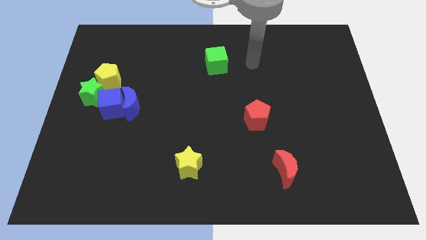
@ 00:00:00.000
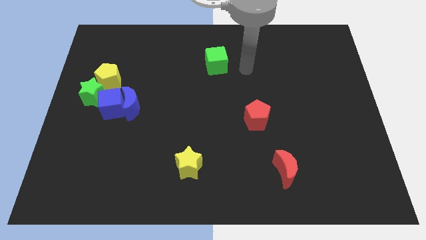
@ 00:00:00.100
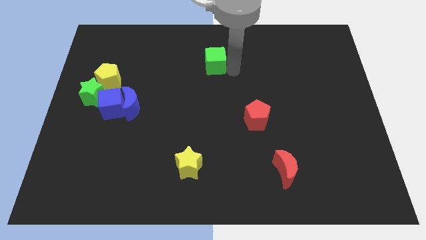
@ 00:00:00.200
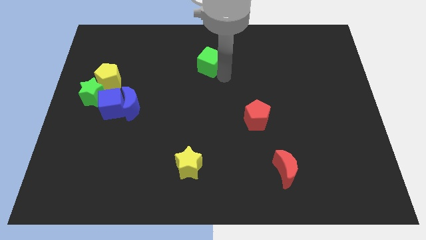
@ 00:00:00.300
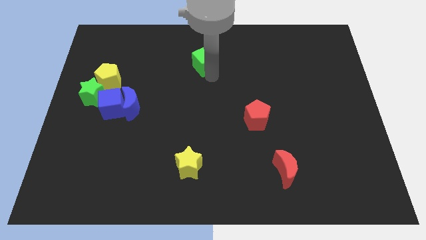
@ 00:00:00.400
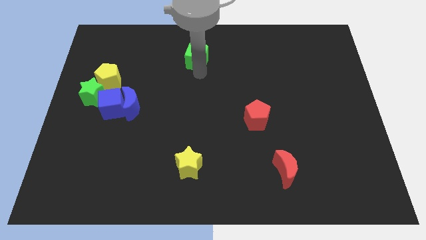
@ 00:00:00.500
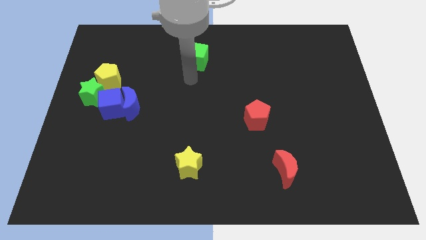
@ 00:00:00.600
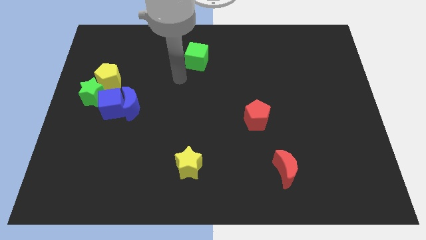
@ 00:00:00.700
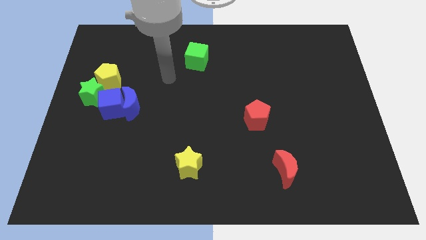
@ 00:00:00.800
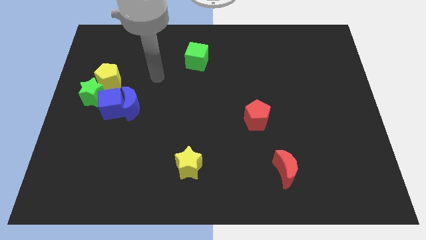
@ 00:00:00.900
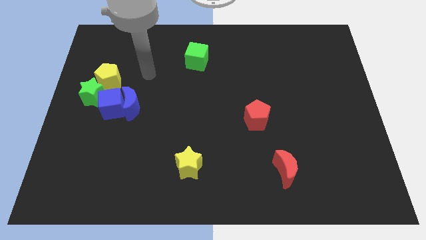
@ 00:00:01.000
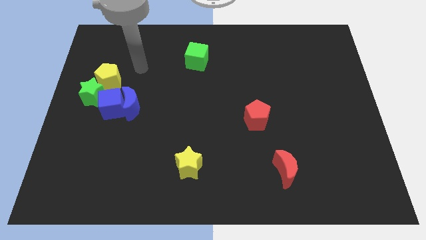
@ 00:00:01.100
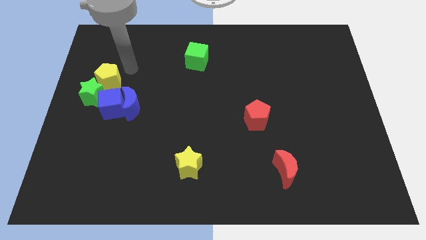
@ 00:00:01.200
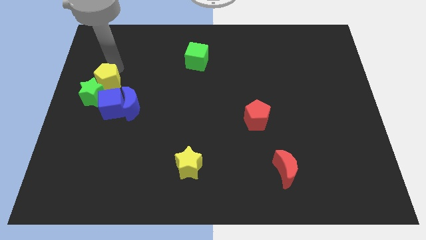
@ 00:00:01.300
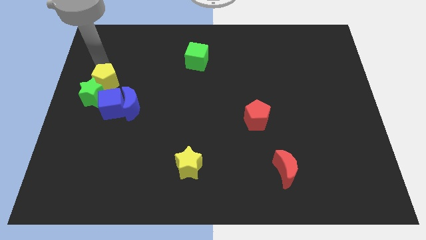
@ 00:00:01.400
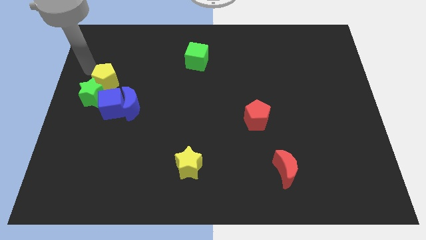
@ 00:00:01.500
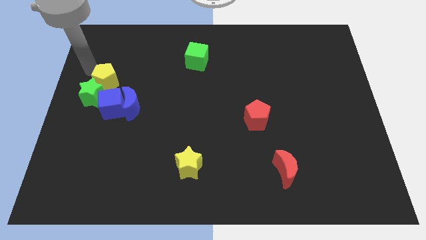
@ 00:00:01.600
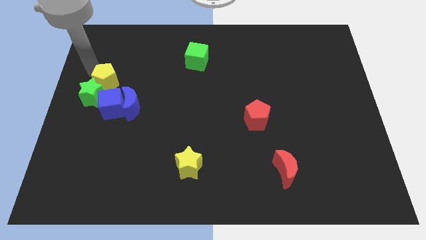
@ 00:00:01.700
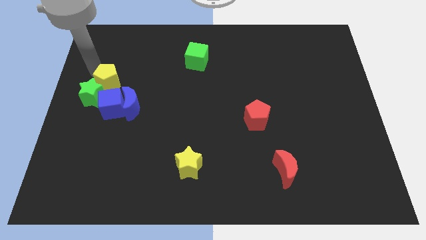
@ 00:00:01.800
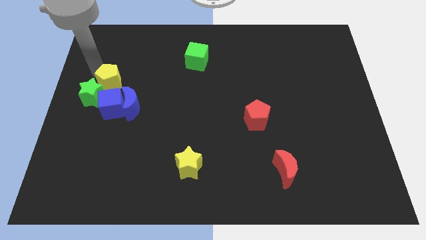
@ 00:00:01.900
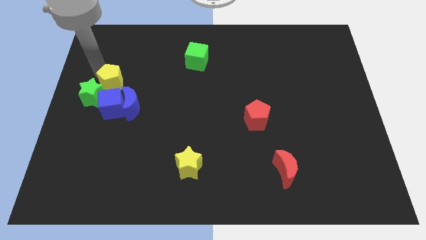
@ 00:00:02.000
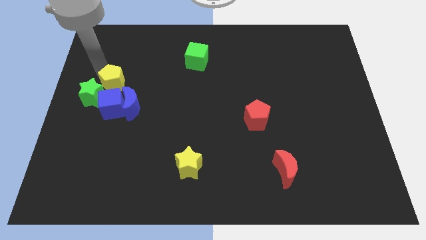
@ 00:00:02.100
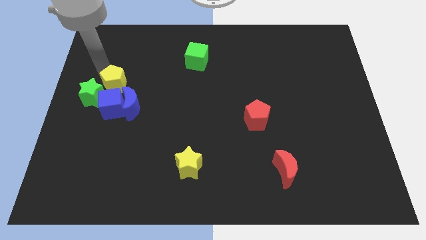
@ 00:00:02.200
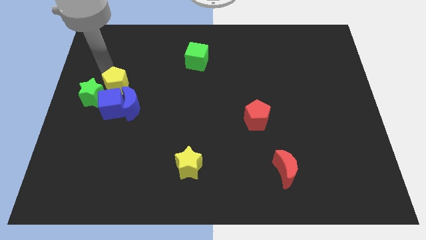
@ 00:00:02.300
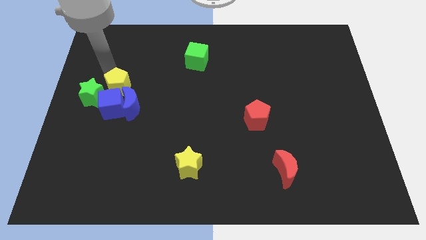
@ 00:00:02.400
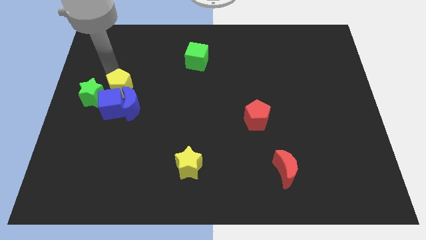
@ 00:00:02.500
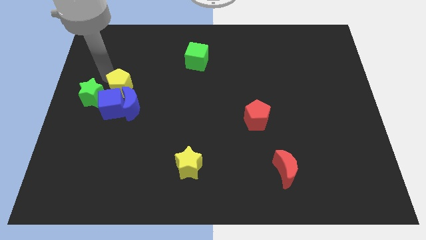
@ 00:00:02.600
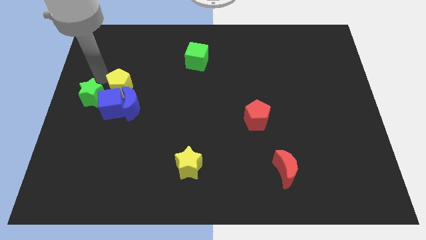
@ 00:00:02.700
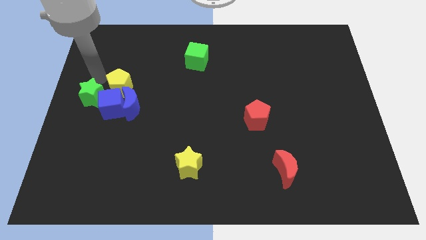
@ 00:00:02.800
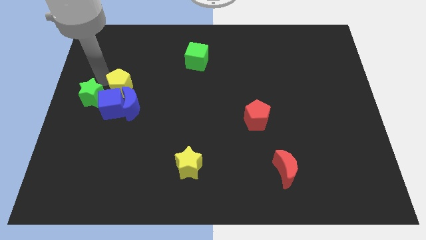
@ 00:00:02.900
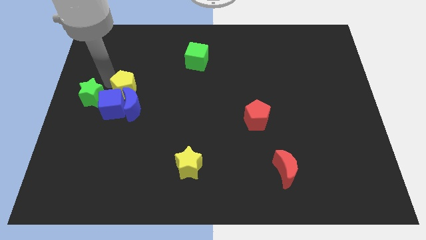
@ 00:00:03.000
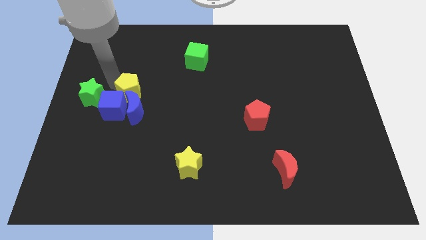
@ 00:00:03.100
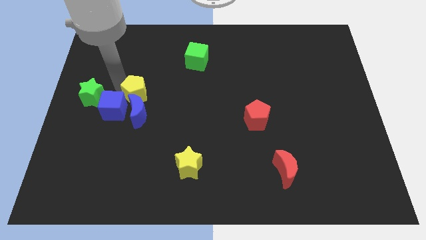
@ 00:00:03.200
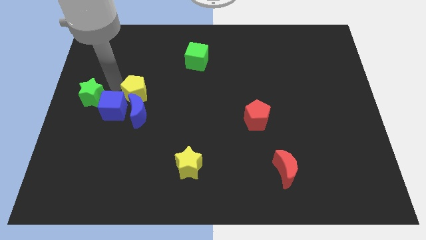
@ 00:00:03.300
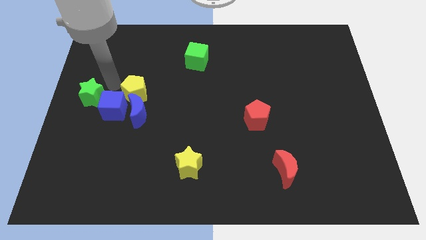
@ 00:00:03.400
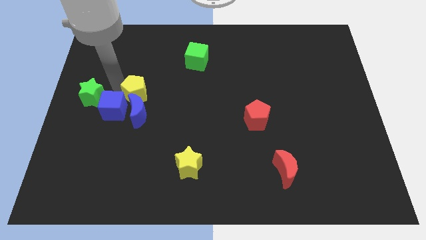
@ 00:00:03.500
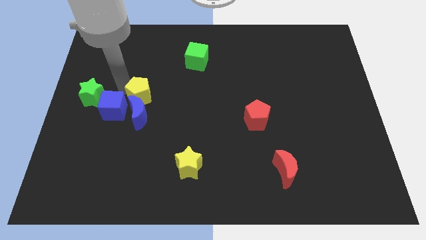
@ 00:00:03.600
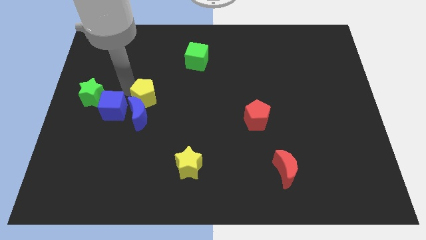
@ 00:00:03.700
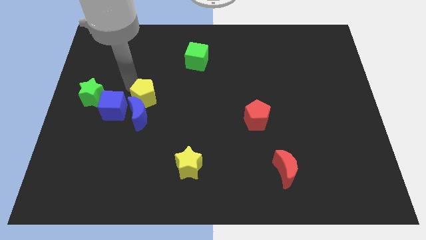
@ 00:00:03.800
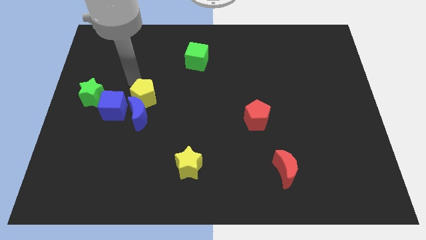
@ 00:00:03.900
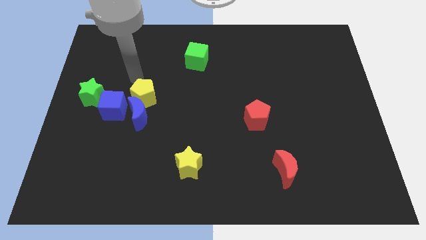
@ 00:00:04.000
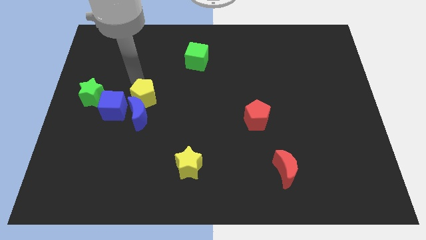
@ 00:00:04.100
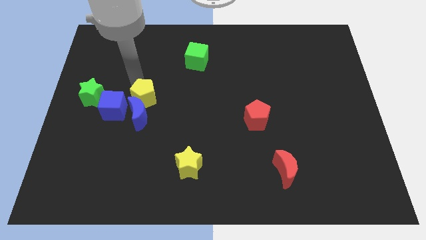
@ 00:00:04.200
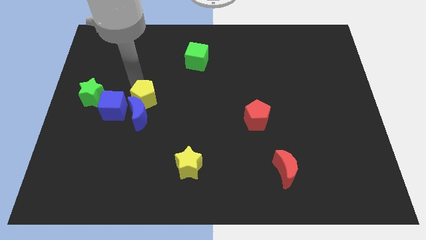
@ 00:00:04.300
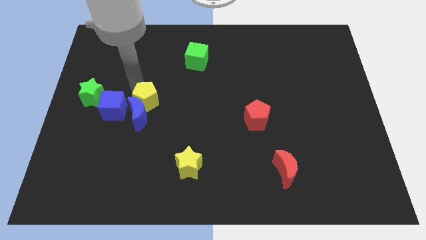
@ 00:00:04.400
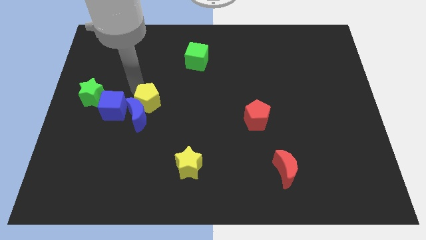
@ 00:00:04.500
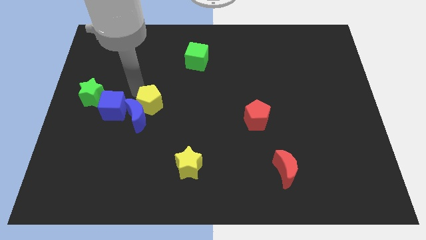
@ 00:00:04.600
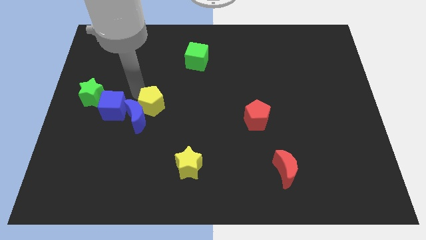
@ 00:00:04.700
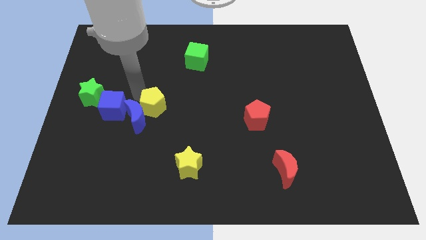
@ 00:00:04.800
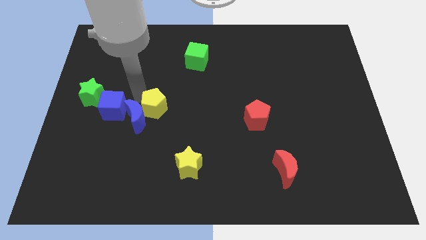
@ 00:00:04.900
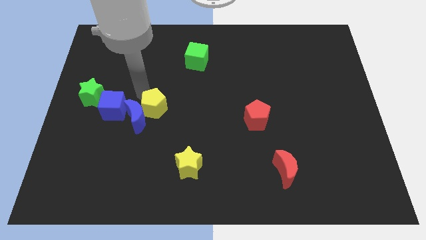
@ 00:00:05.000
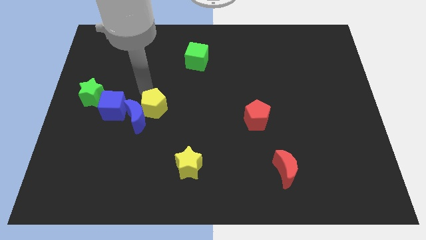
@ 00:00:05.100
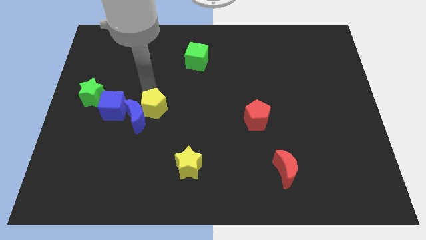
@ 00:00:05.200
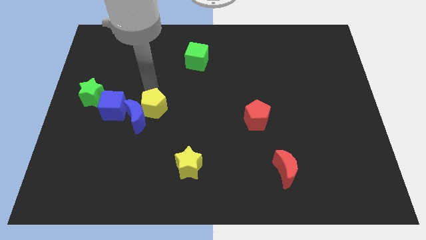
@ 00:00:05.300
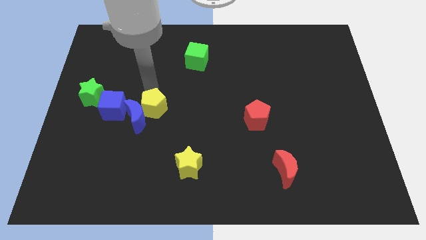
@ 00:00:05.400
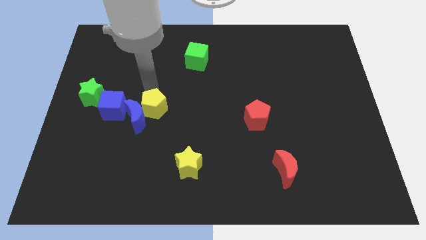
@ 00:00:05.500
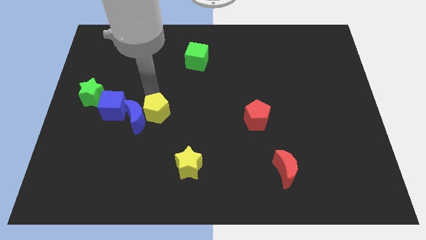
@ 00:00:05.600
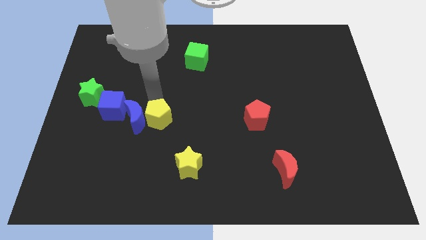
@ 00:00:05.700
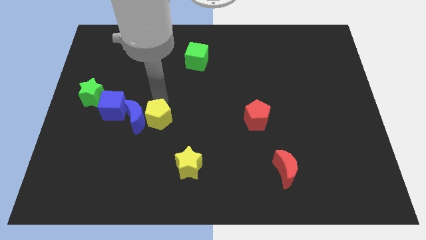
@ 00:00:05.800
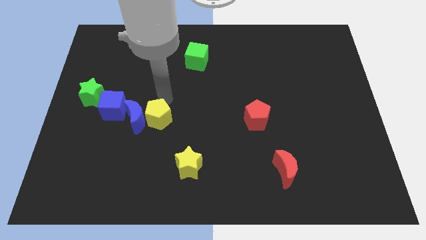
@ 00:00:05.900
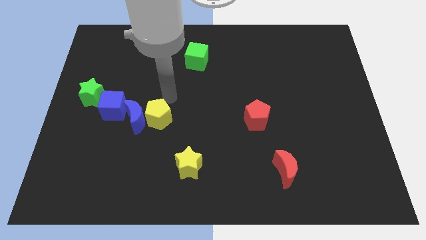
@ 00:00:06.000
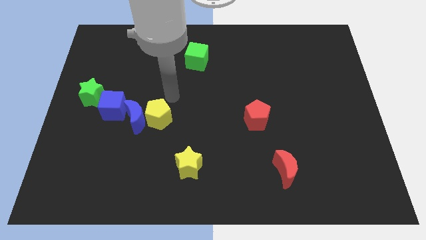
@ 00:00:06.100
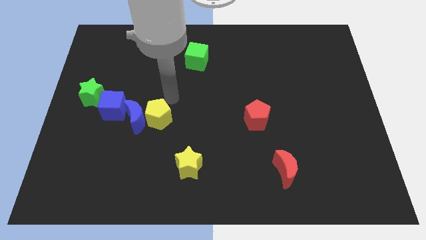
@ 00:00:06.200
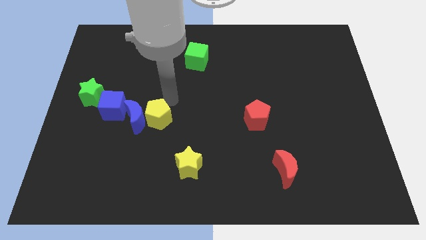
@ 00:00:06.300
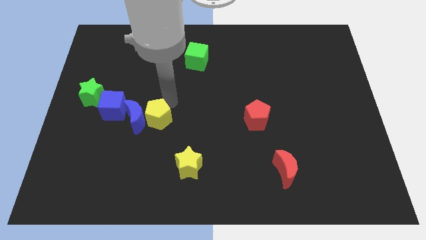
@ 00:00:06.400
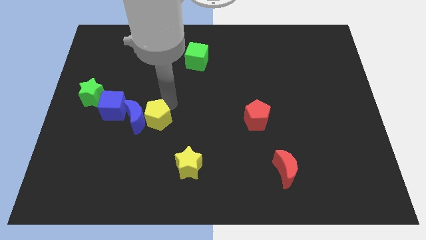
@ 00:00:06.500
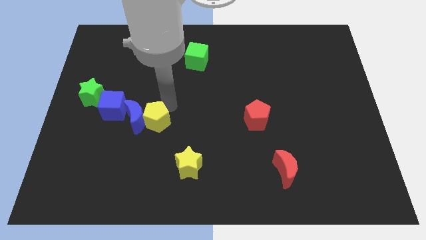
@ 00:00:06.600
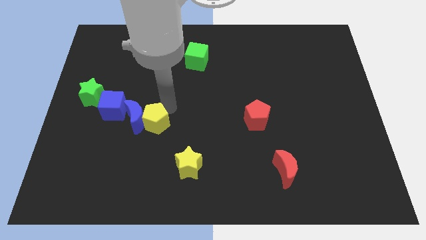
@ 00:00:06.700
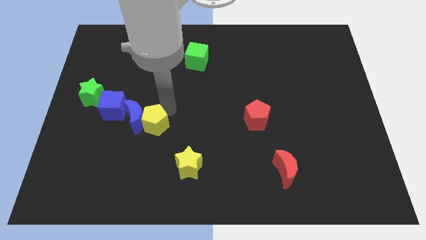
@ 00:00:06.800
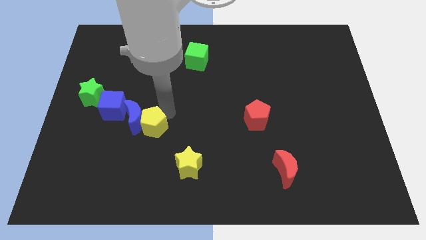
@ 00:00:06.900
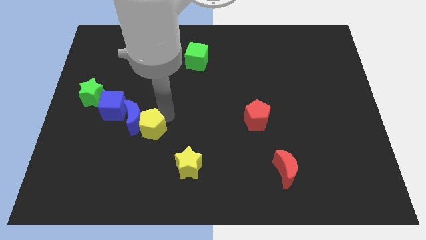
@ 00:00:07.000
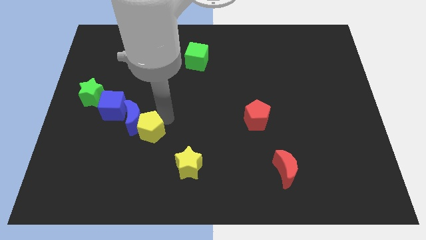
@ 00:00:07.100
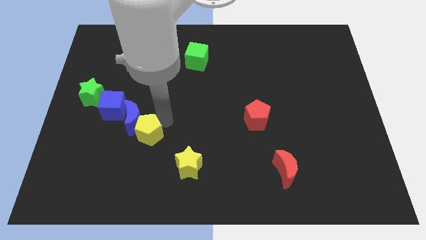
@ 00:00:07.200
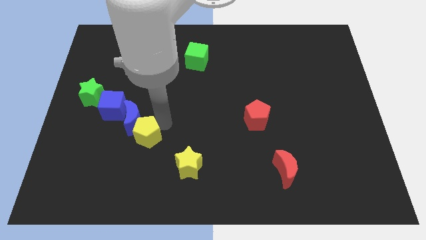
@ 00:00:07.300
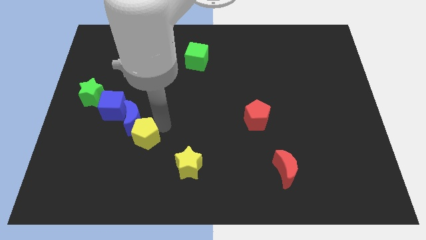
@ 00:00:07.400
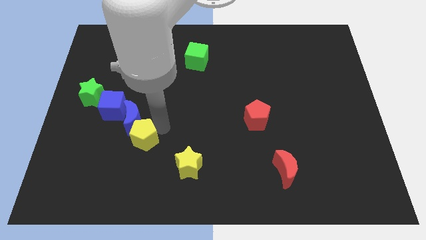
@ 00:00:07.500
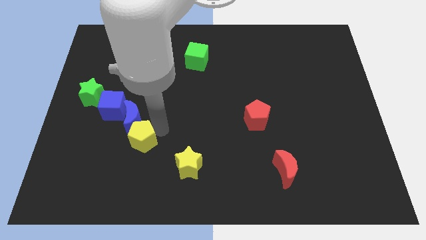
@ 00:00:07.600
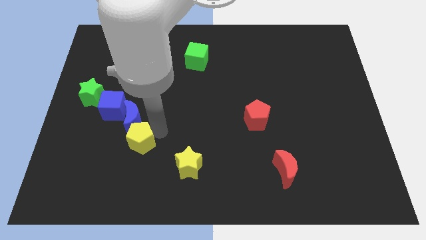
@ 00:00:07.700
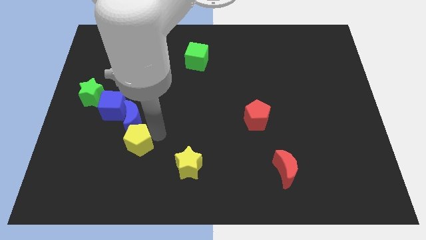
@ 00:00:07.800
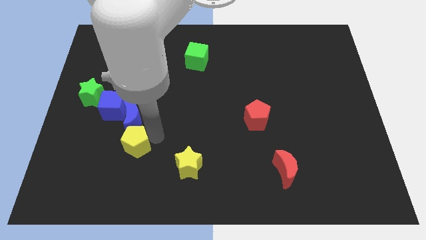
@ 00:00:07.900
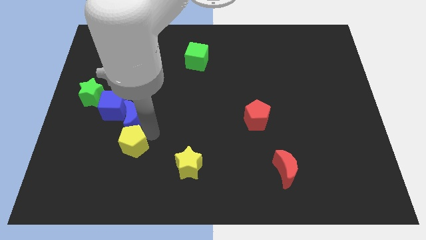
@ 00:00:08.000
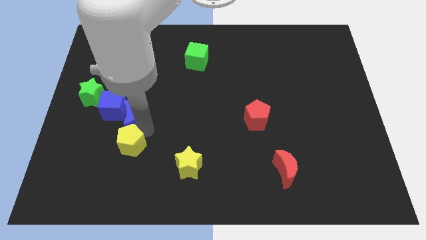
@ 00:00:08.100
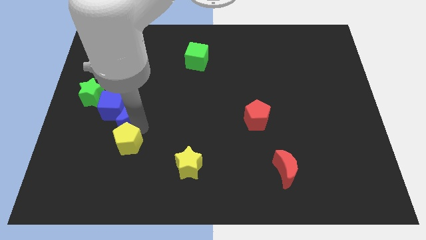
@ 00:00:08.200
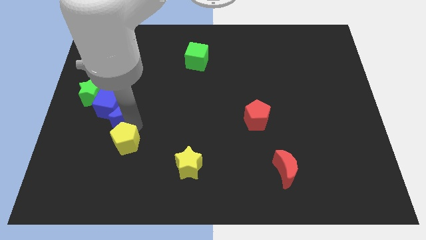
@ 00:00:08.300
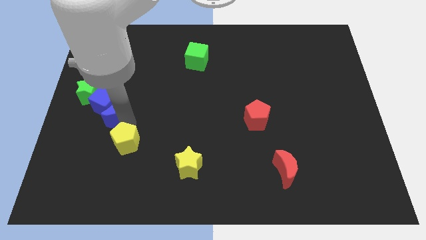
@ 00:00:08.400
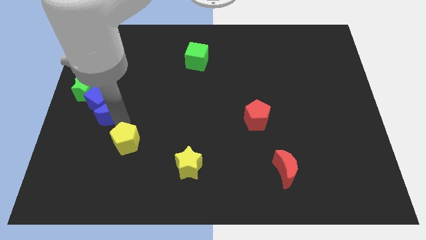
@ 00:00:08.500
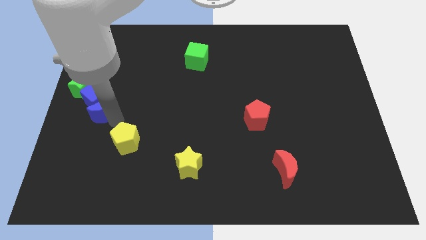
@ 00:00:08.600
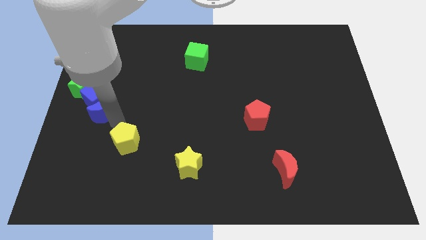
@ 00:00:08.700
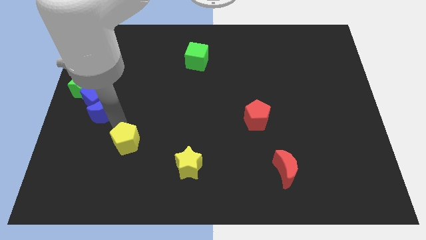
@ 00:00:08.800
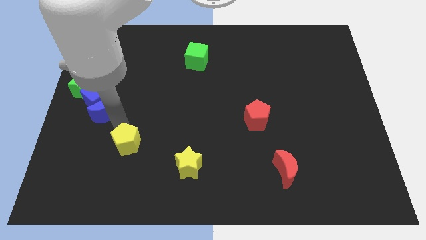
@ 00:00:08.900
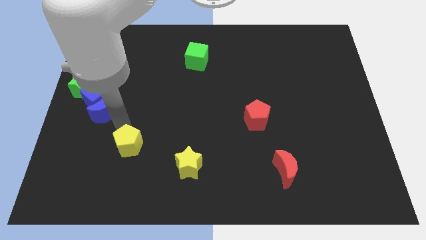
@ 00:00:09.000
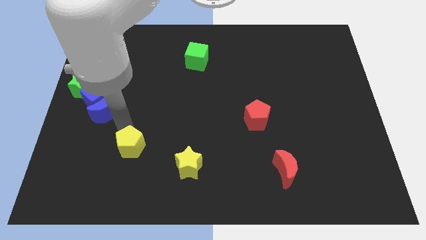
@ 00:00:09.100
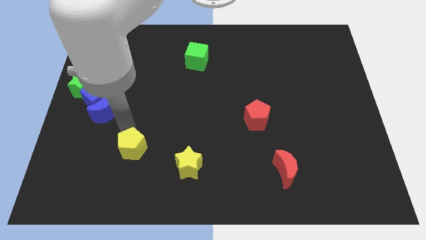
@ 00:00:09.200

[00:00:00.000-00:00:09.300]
move the yellow pentagon to the left of the yellow star
